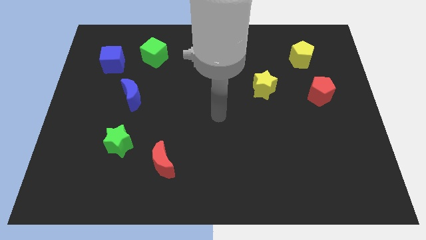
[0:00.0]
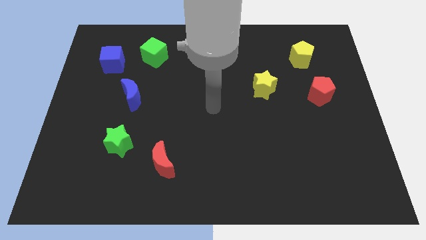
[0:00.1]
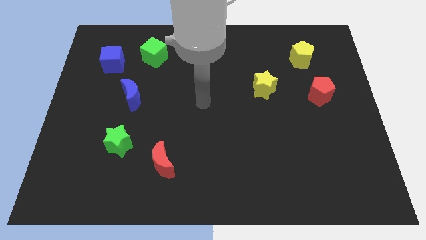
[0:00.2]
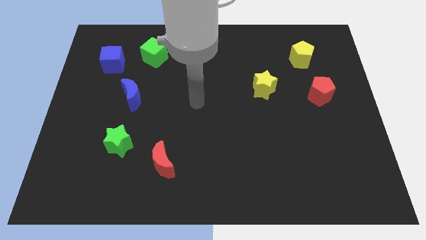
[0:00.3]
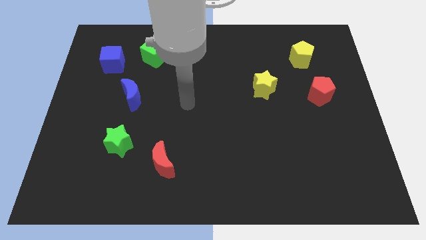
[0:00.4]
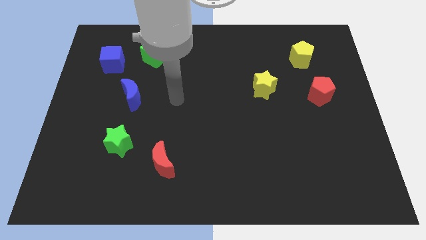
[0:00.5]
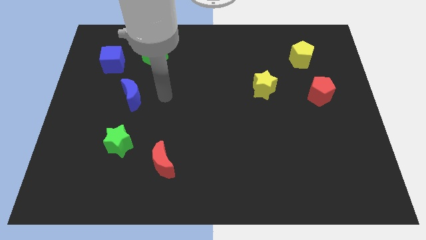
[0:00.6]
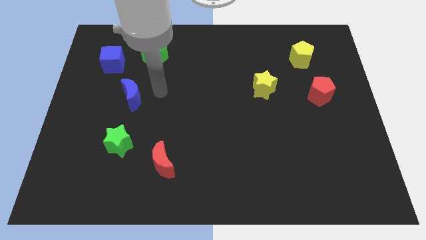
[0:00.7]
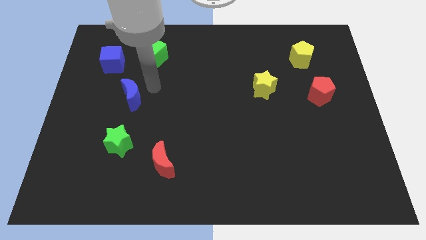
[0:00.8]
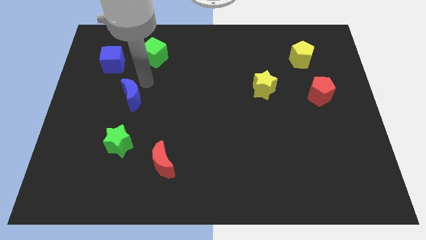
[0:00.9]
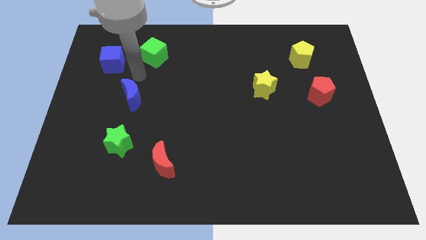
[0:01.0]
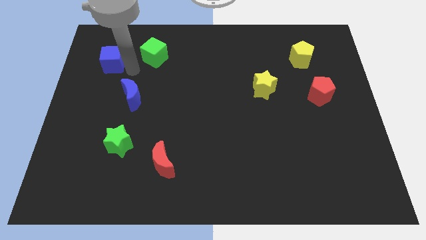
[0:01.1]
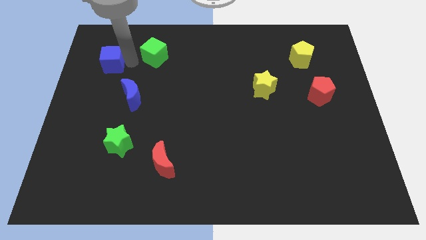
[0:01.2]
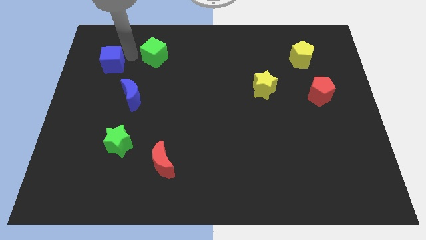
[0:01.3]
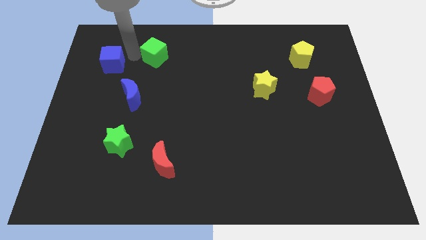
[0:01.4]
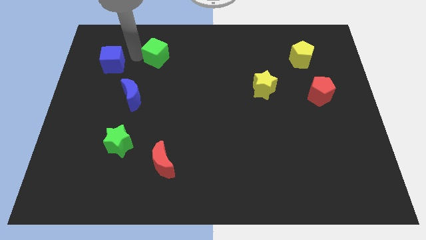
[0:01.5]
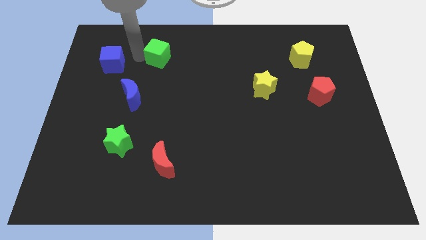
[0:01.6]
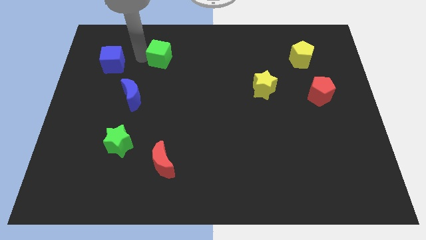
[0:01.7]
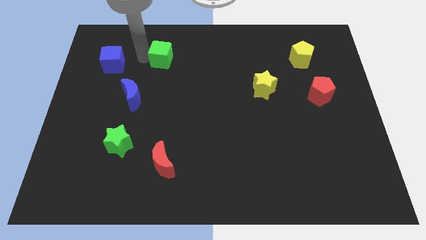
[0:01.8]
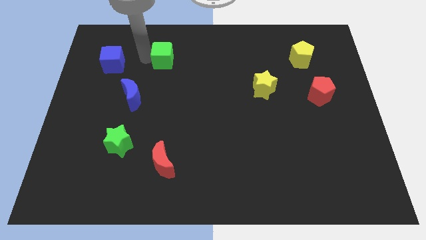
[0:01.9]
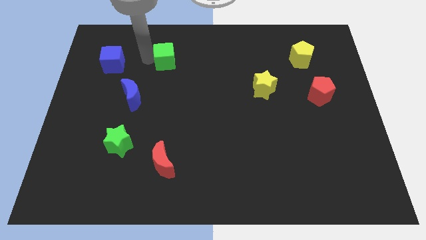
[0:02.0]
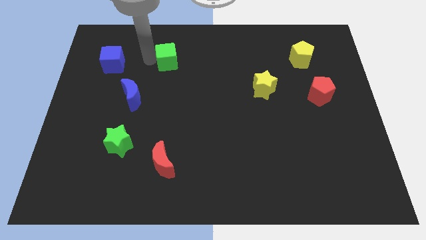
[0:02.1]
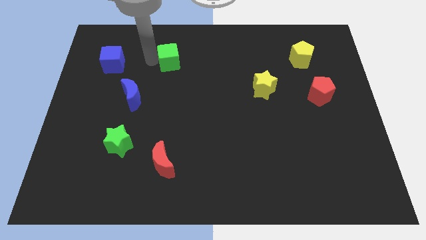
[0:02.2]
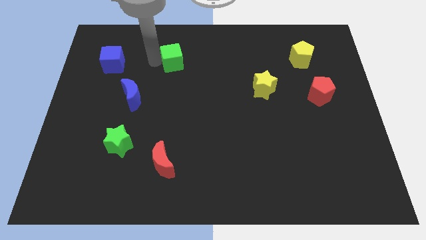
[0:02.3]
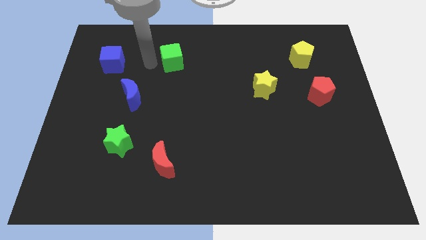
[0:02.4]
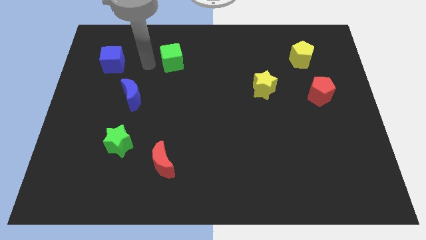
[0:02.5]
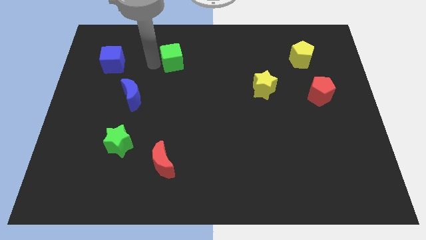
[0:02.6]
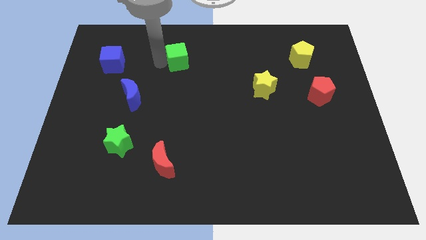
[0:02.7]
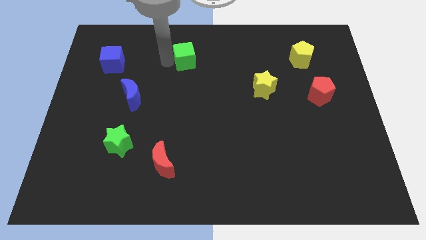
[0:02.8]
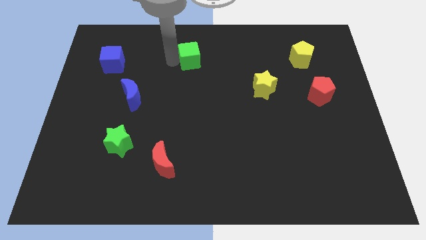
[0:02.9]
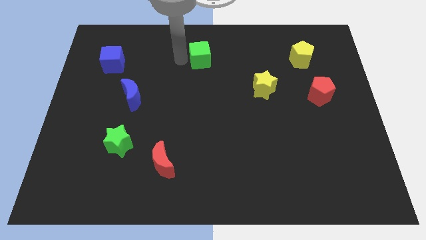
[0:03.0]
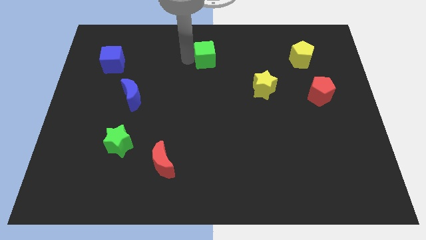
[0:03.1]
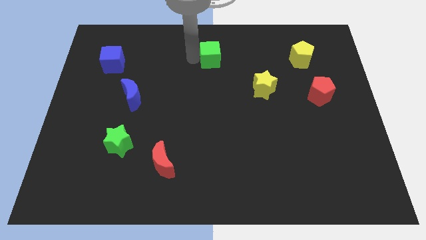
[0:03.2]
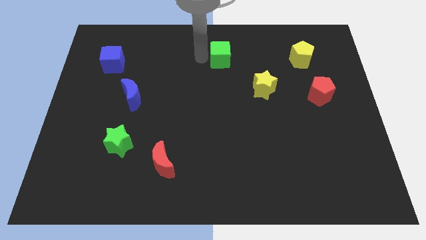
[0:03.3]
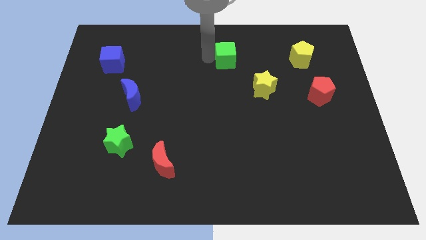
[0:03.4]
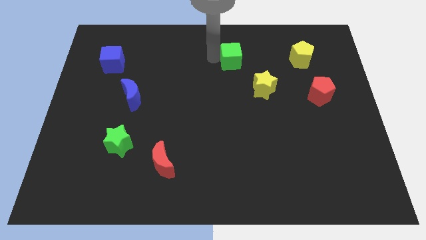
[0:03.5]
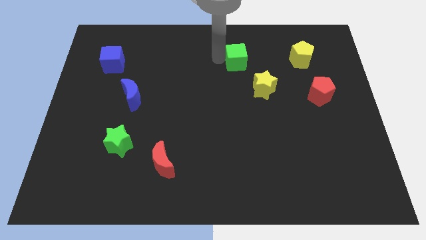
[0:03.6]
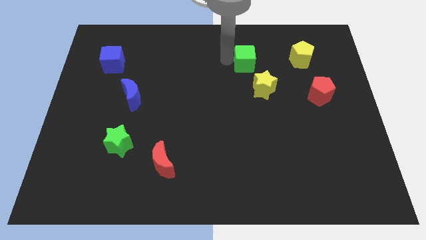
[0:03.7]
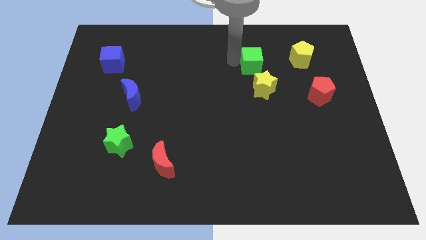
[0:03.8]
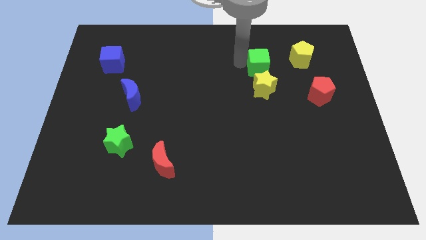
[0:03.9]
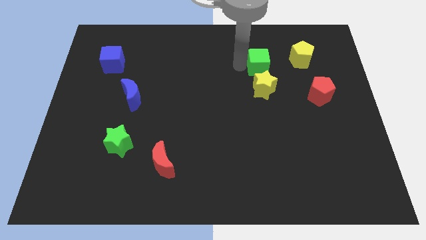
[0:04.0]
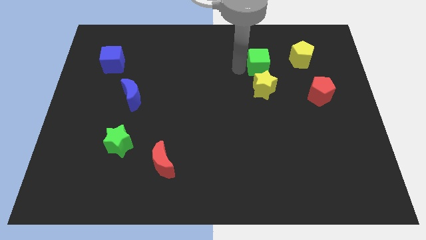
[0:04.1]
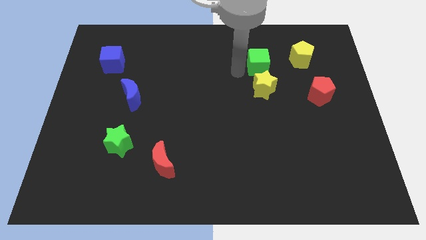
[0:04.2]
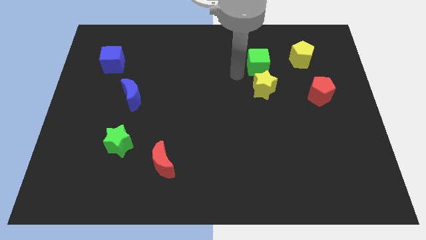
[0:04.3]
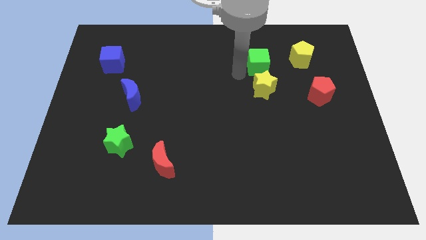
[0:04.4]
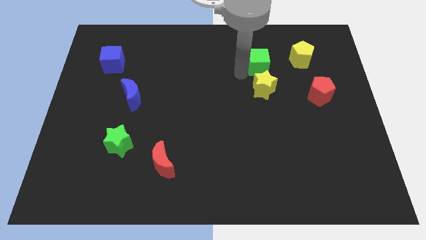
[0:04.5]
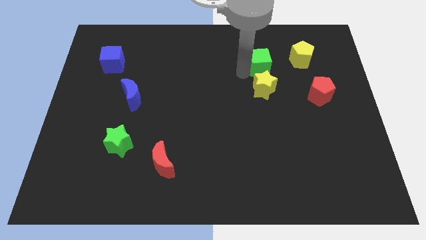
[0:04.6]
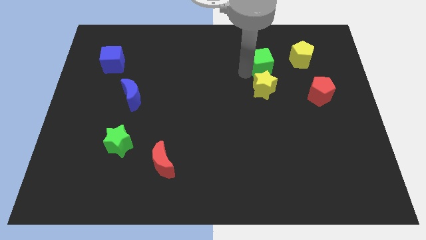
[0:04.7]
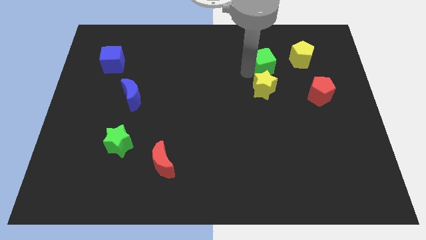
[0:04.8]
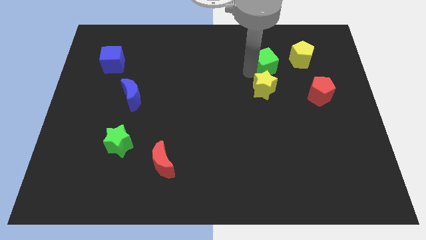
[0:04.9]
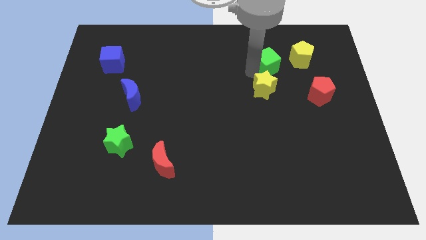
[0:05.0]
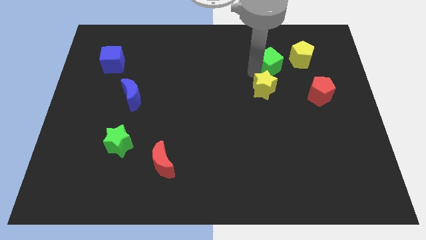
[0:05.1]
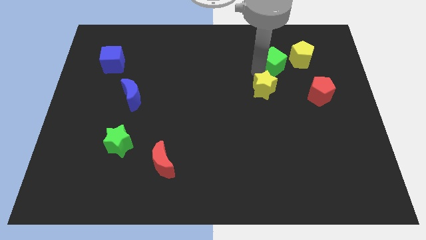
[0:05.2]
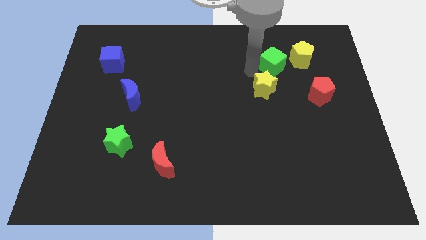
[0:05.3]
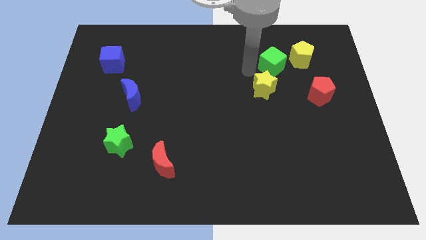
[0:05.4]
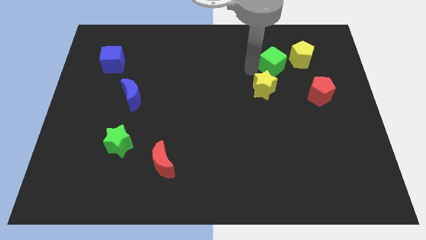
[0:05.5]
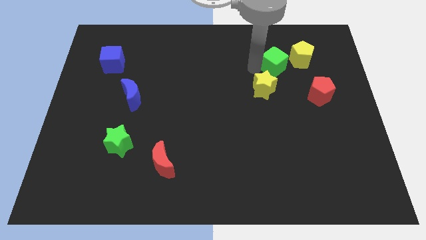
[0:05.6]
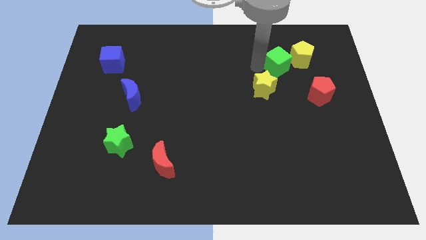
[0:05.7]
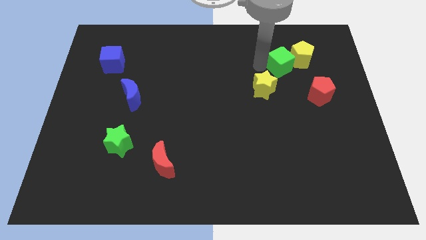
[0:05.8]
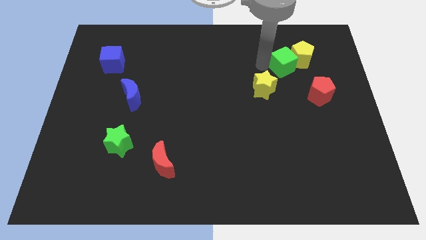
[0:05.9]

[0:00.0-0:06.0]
push the green cube to the yellow pentagon

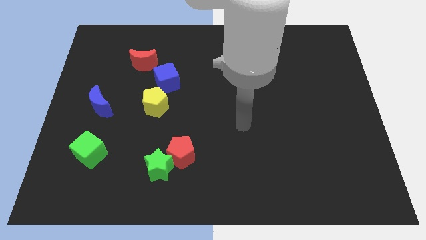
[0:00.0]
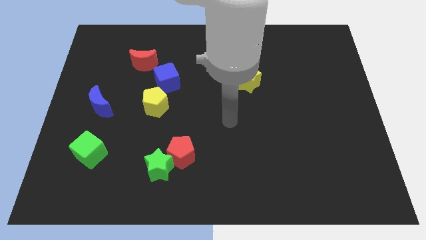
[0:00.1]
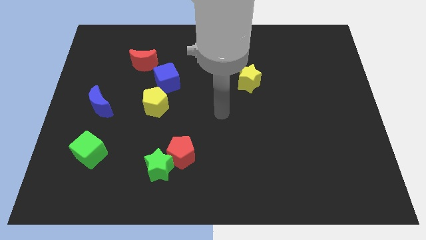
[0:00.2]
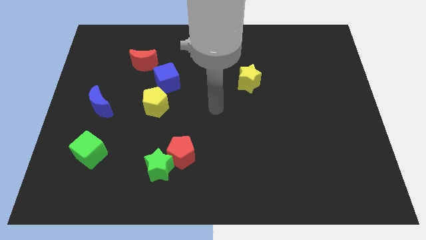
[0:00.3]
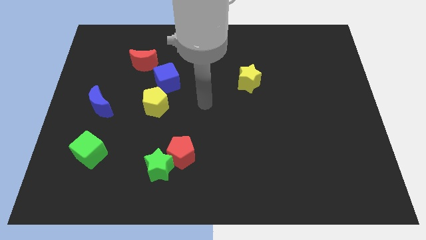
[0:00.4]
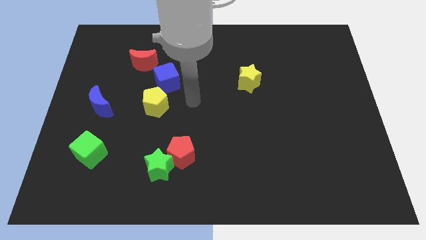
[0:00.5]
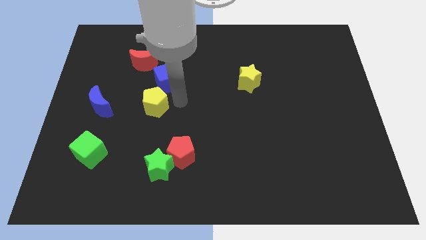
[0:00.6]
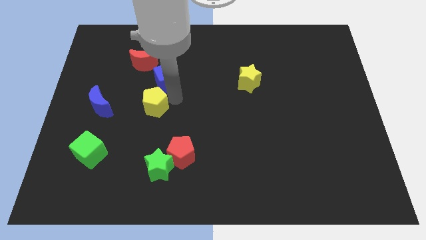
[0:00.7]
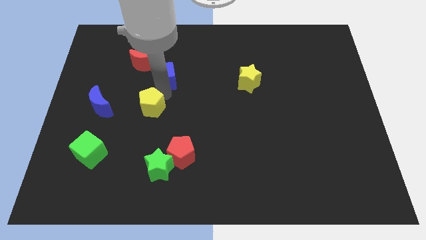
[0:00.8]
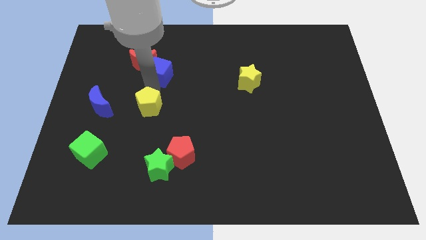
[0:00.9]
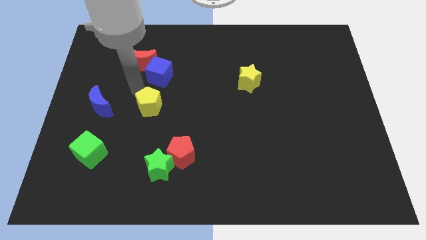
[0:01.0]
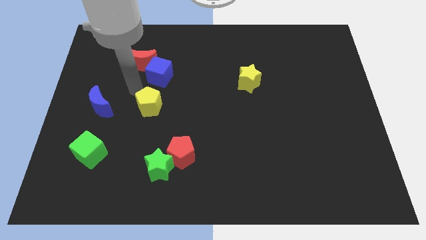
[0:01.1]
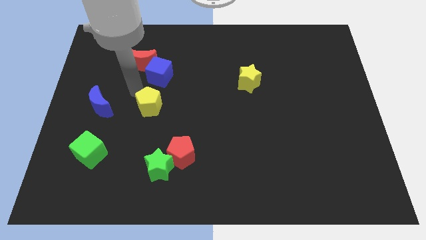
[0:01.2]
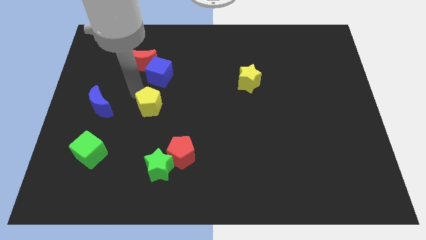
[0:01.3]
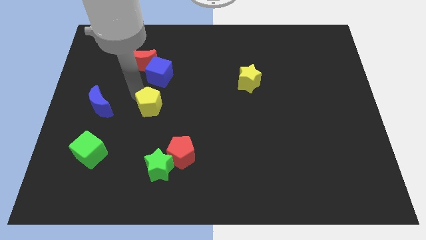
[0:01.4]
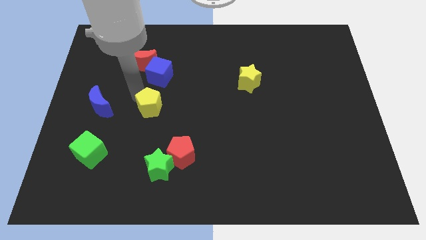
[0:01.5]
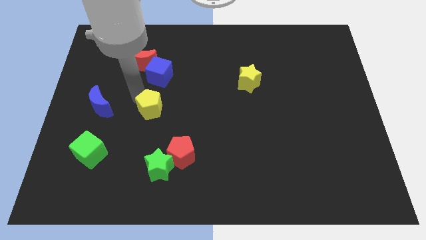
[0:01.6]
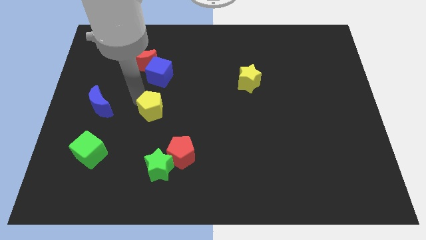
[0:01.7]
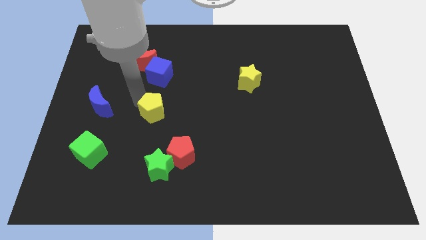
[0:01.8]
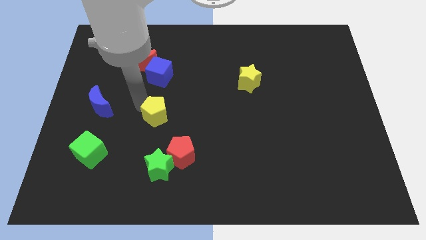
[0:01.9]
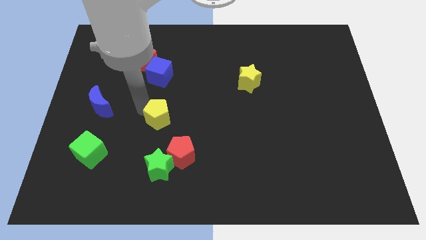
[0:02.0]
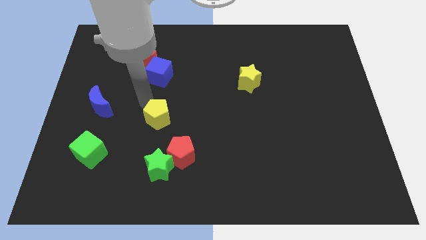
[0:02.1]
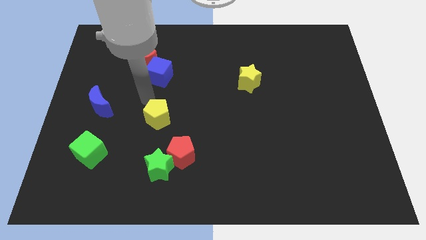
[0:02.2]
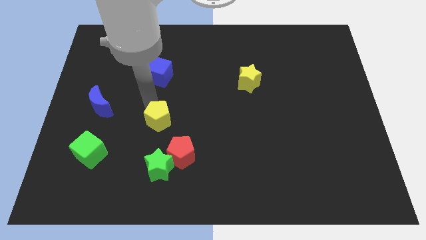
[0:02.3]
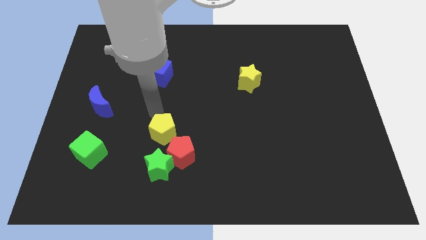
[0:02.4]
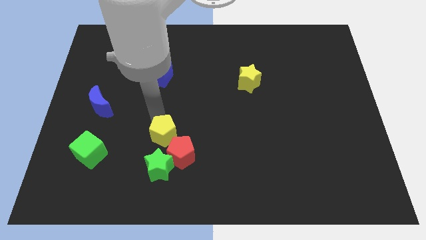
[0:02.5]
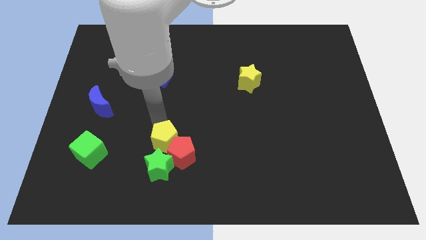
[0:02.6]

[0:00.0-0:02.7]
push the yellow pentagon to the red pentagon
